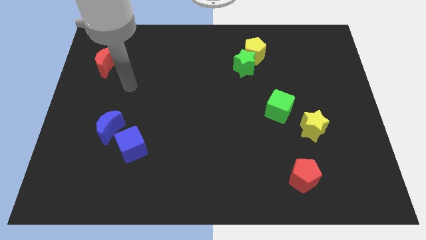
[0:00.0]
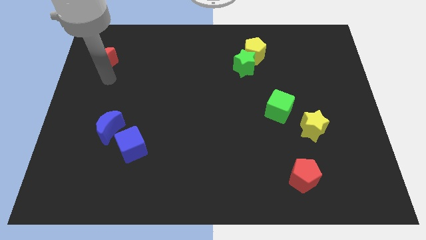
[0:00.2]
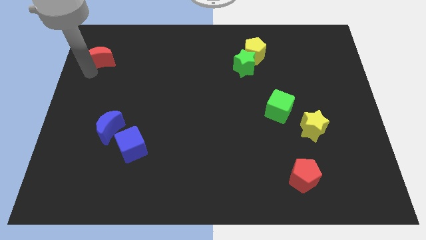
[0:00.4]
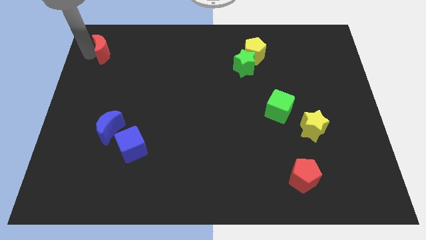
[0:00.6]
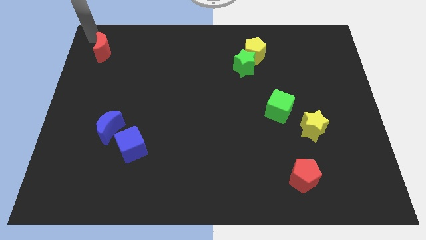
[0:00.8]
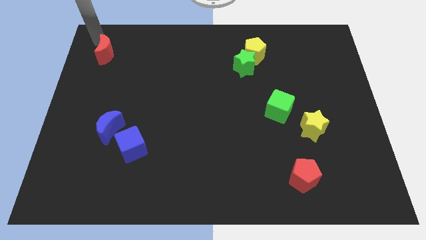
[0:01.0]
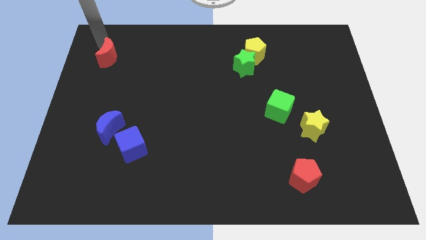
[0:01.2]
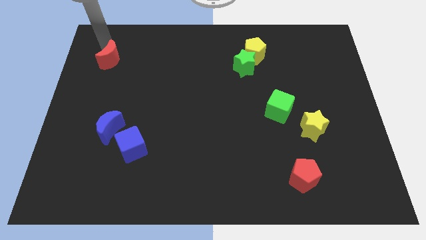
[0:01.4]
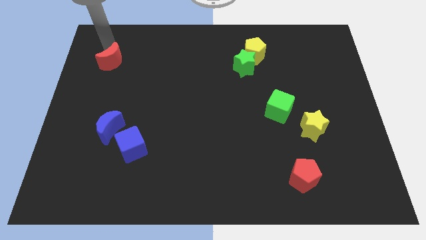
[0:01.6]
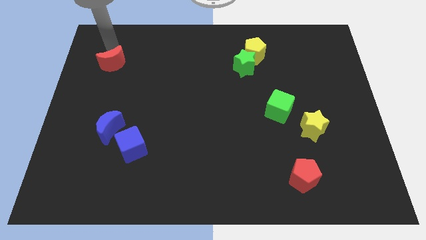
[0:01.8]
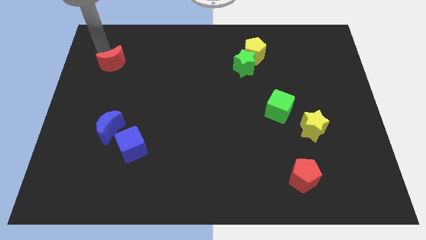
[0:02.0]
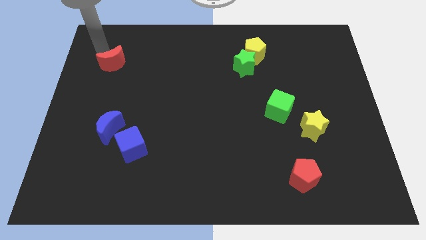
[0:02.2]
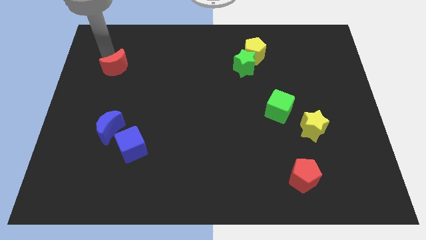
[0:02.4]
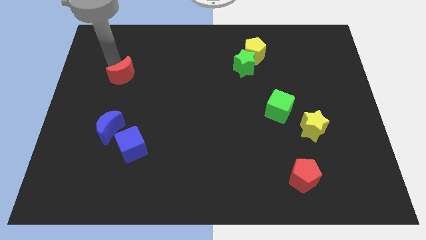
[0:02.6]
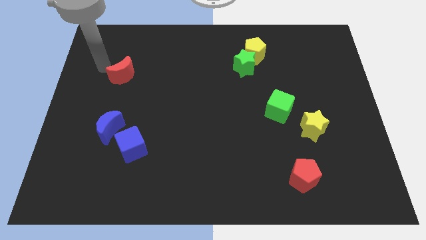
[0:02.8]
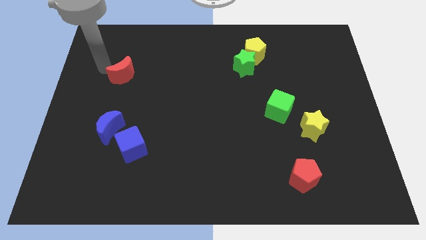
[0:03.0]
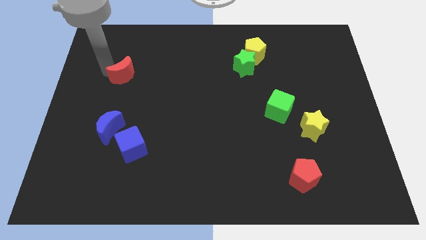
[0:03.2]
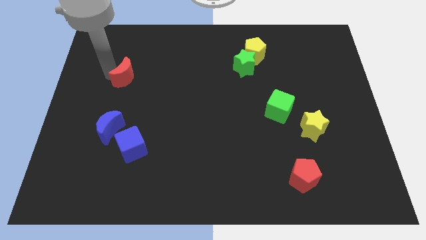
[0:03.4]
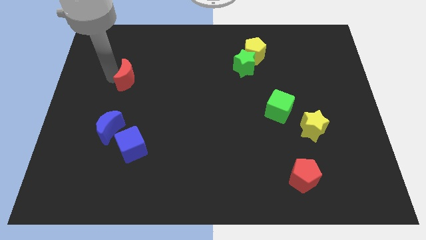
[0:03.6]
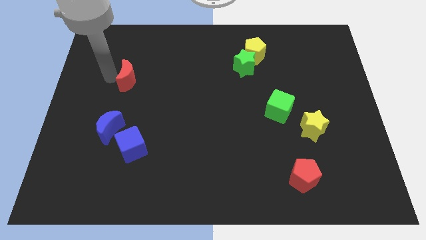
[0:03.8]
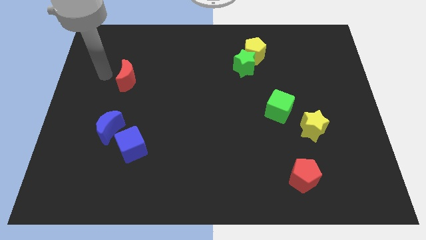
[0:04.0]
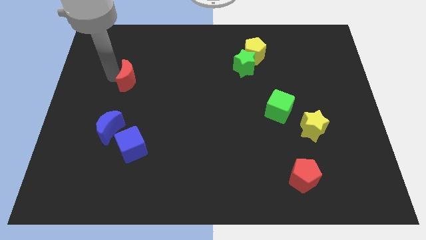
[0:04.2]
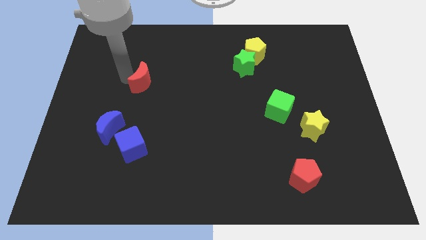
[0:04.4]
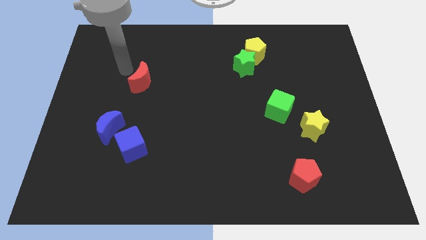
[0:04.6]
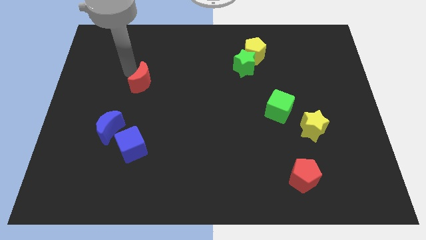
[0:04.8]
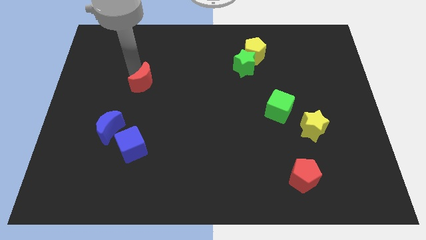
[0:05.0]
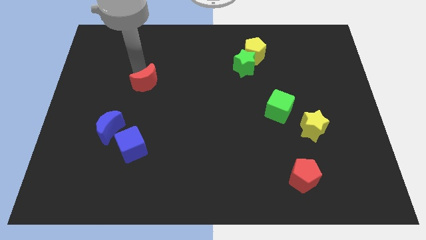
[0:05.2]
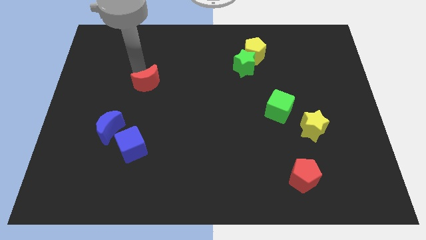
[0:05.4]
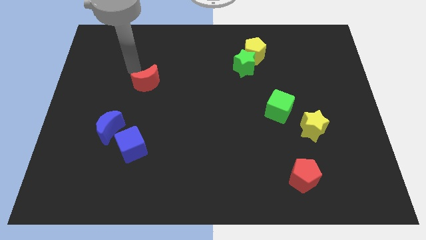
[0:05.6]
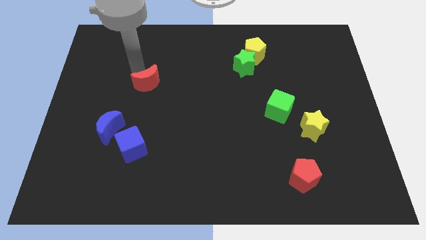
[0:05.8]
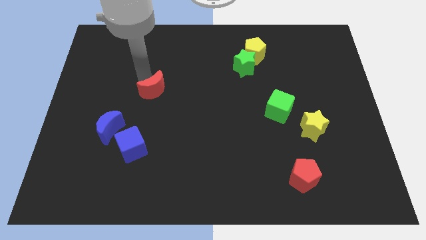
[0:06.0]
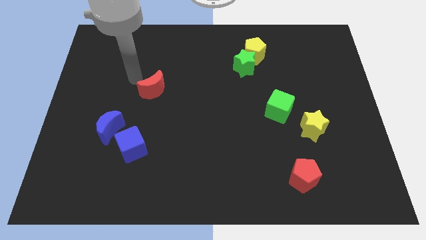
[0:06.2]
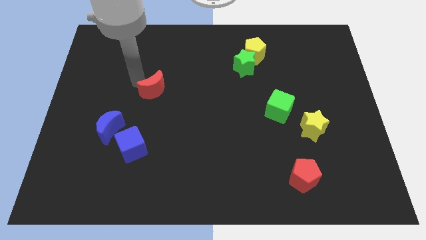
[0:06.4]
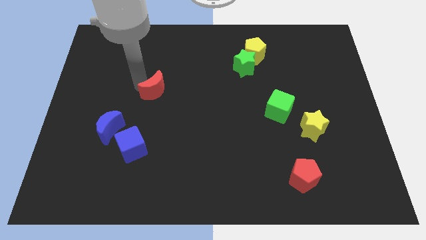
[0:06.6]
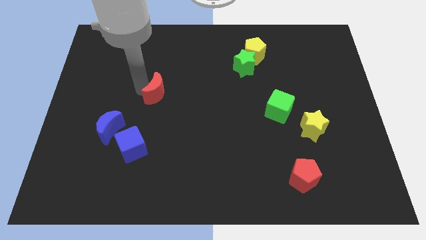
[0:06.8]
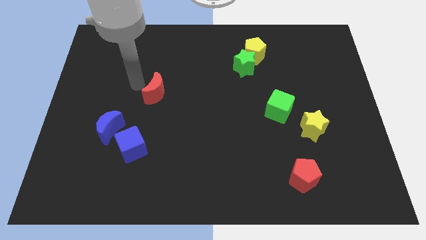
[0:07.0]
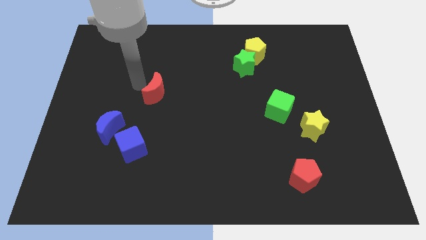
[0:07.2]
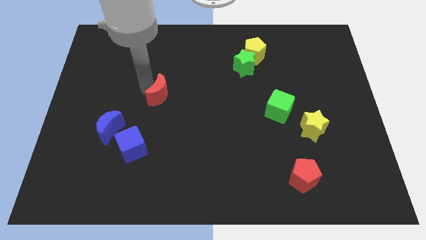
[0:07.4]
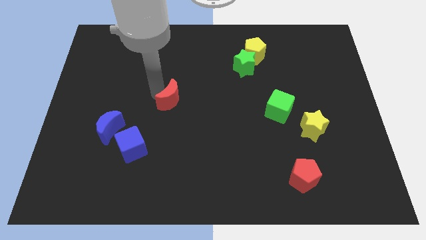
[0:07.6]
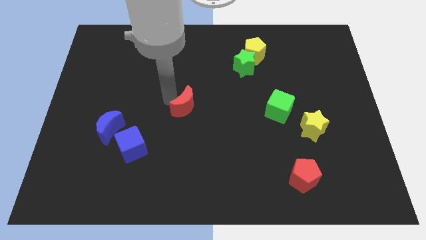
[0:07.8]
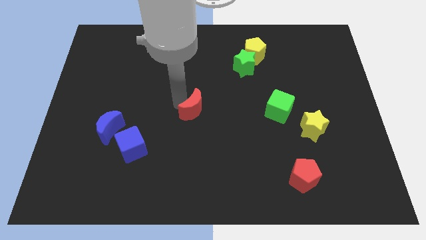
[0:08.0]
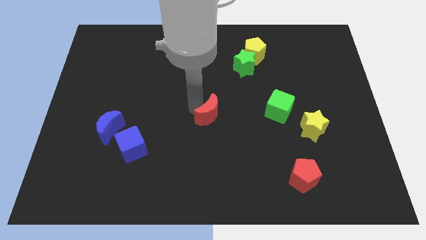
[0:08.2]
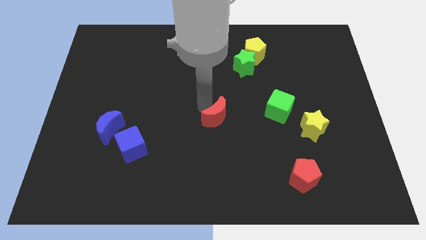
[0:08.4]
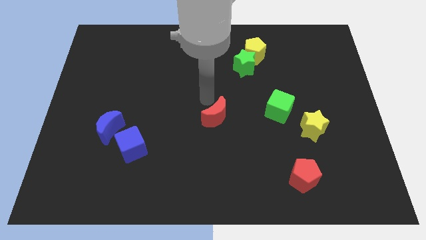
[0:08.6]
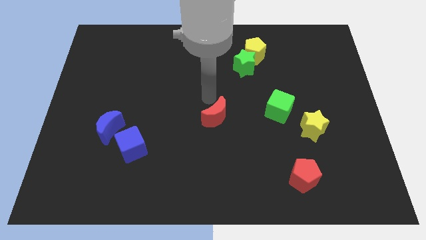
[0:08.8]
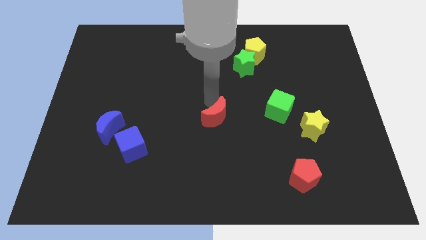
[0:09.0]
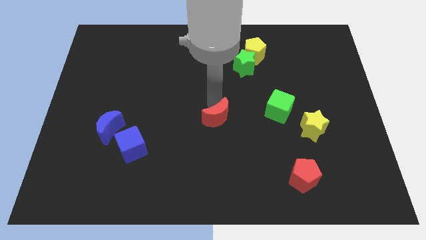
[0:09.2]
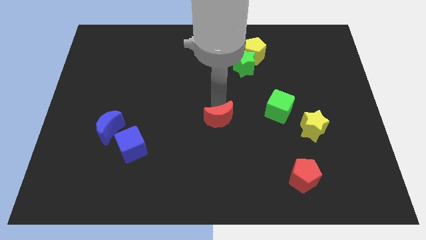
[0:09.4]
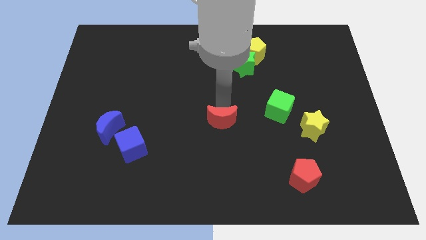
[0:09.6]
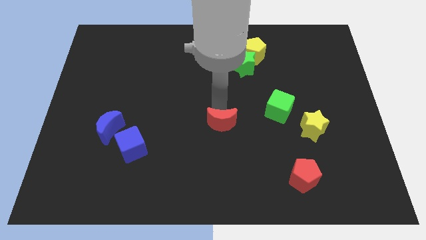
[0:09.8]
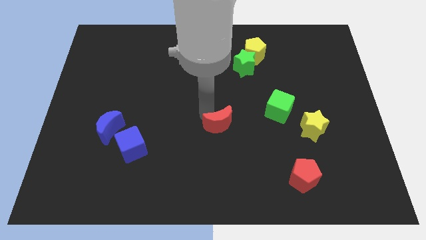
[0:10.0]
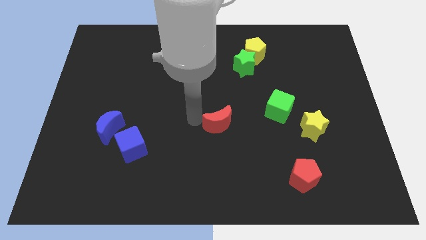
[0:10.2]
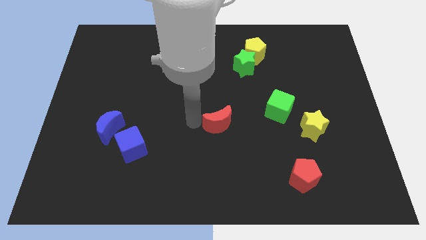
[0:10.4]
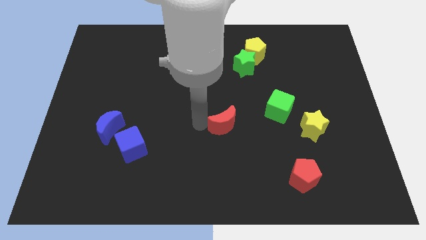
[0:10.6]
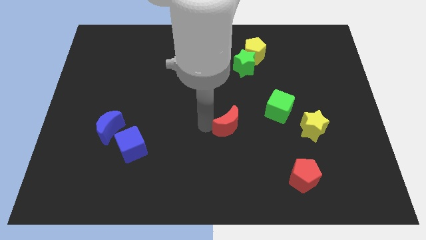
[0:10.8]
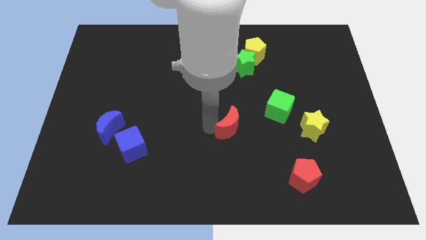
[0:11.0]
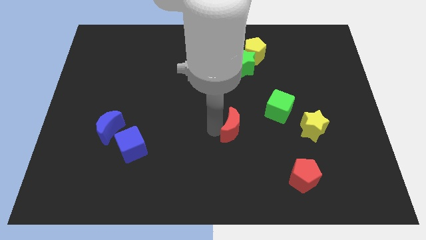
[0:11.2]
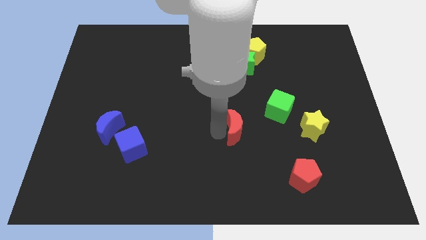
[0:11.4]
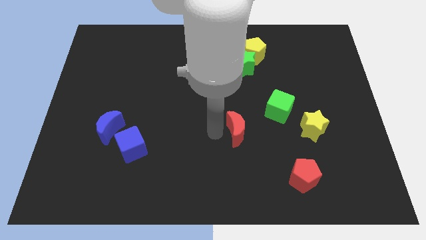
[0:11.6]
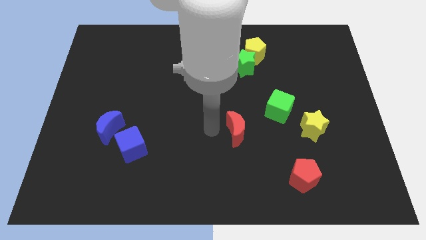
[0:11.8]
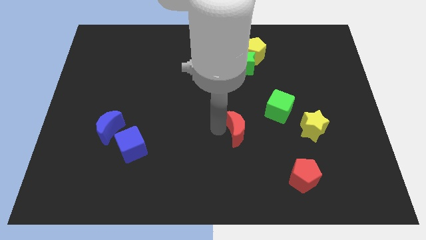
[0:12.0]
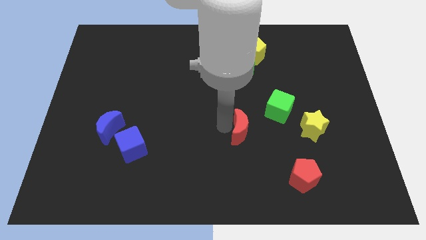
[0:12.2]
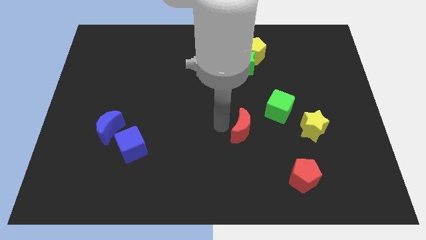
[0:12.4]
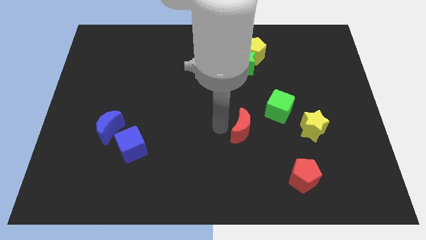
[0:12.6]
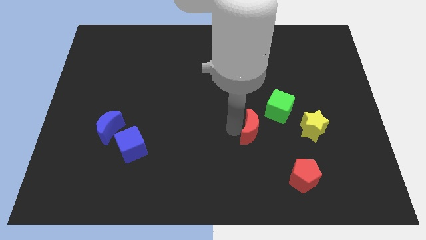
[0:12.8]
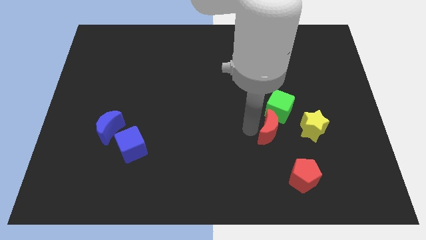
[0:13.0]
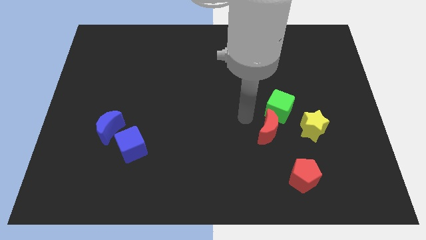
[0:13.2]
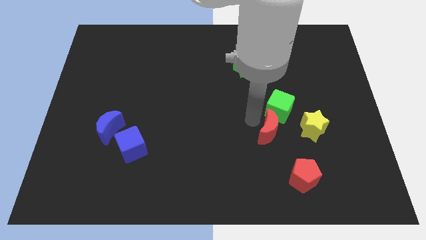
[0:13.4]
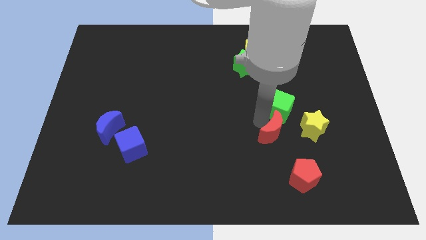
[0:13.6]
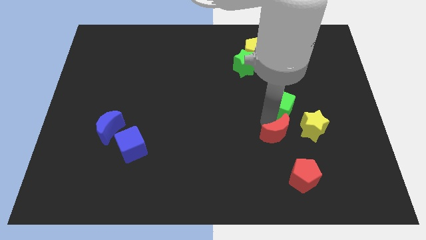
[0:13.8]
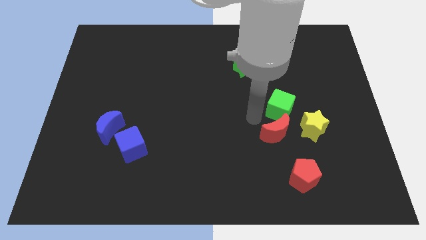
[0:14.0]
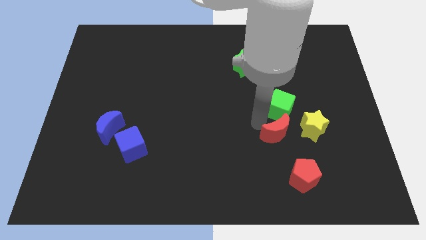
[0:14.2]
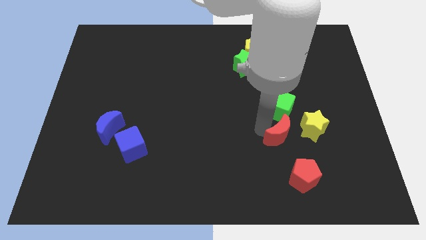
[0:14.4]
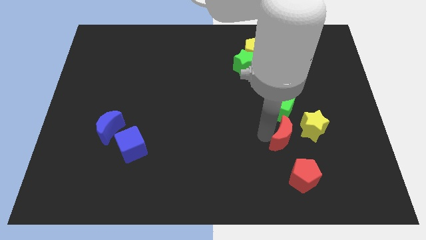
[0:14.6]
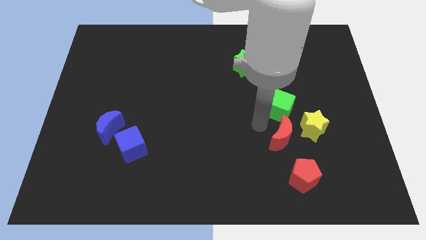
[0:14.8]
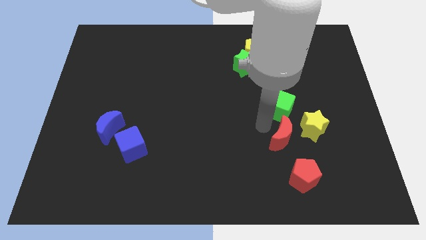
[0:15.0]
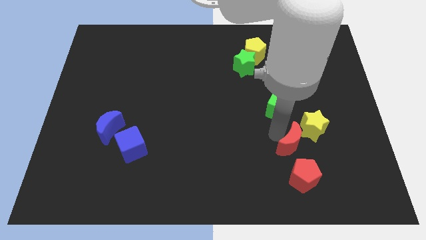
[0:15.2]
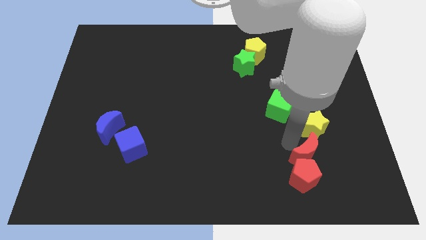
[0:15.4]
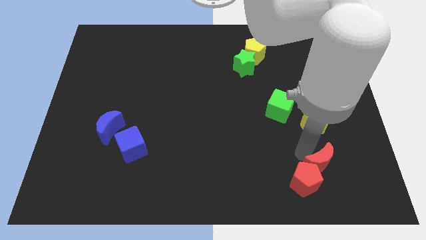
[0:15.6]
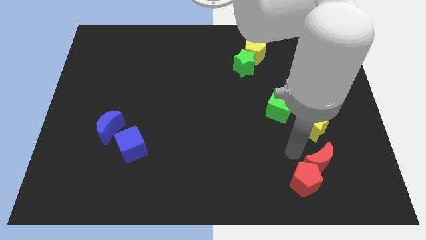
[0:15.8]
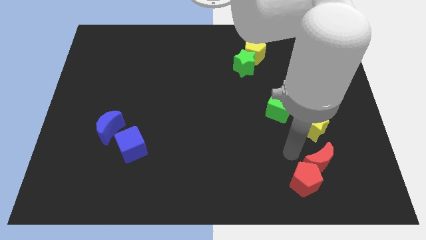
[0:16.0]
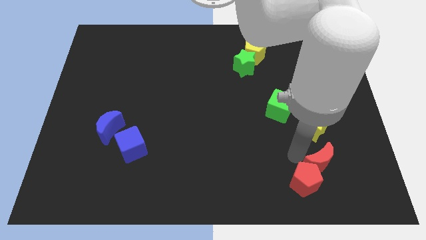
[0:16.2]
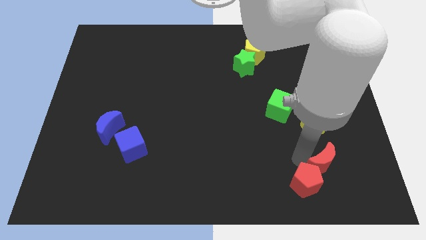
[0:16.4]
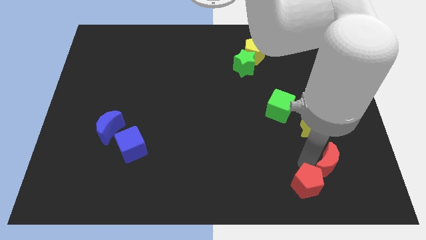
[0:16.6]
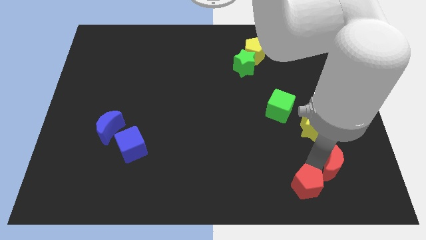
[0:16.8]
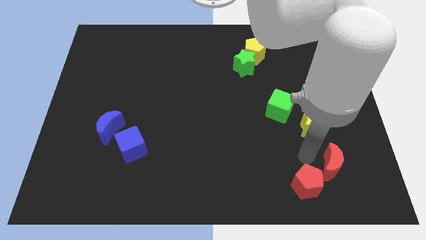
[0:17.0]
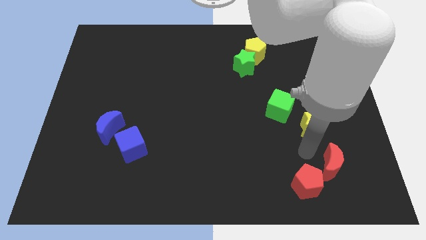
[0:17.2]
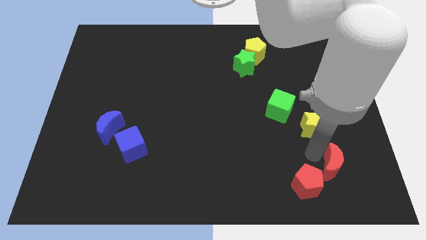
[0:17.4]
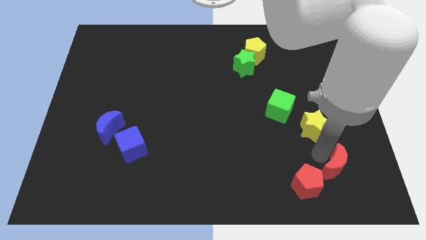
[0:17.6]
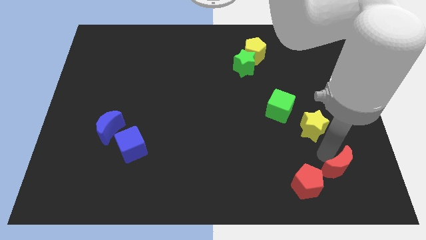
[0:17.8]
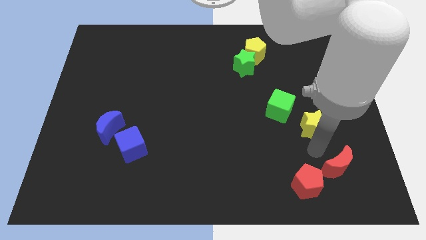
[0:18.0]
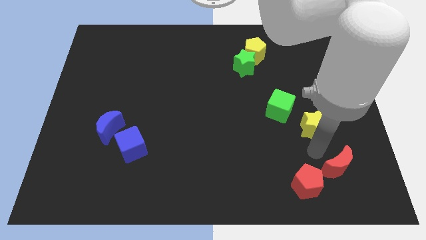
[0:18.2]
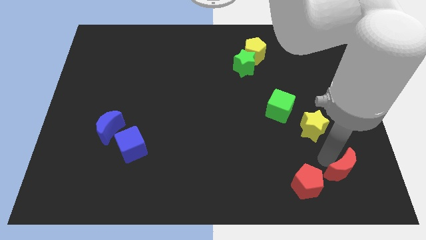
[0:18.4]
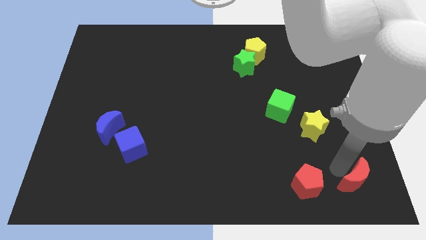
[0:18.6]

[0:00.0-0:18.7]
slide the red moon to the bottom right corner
